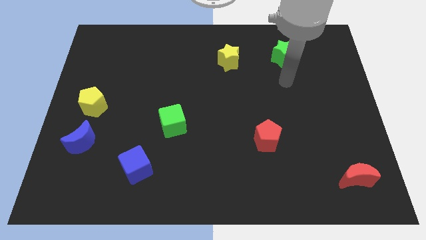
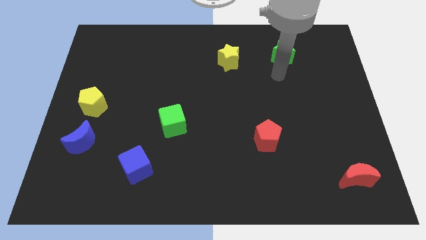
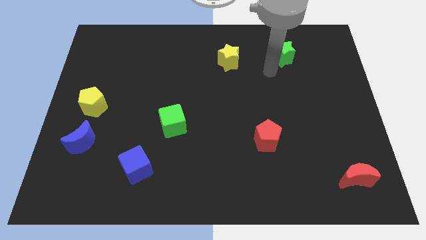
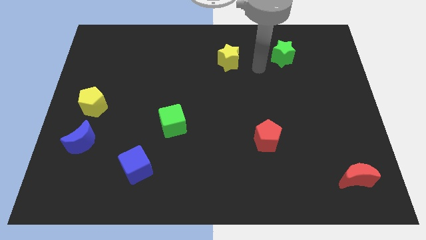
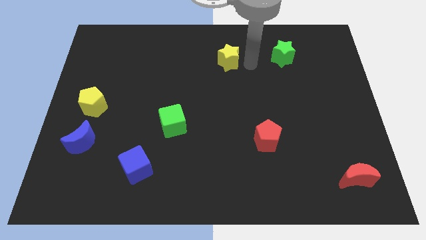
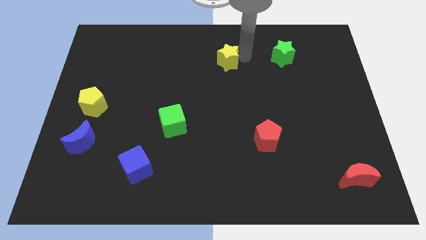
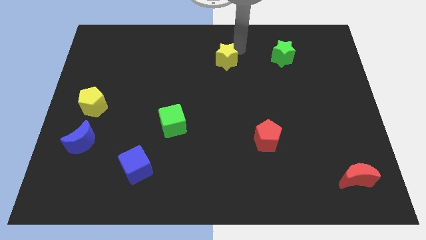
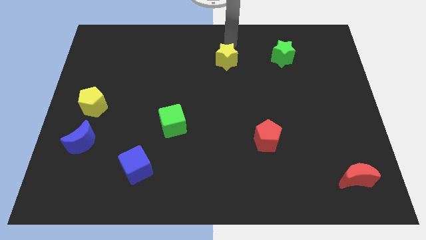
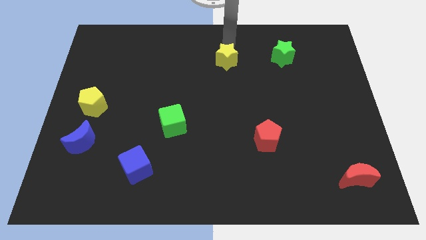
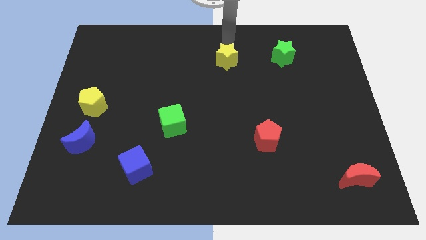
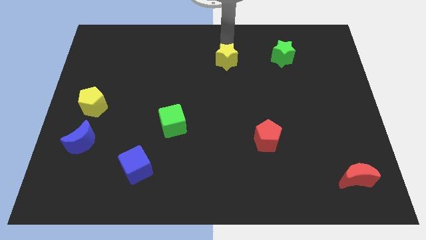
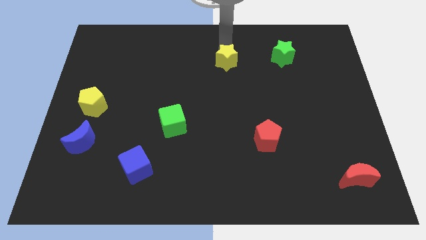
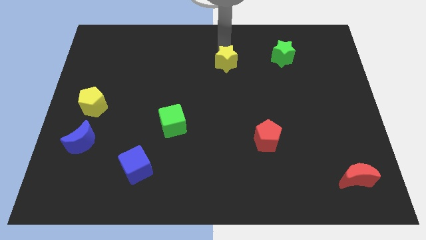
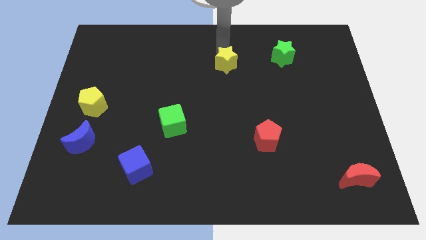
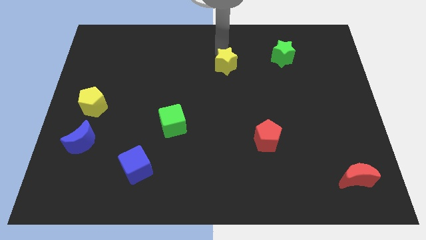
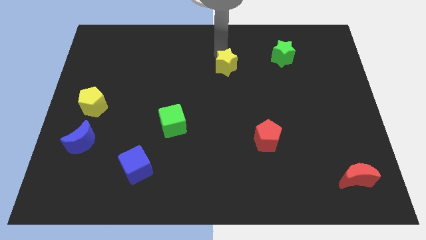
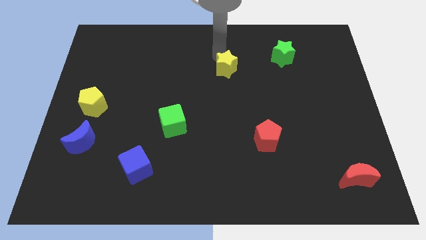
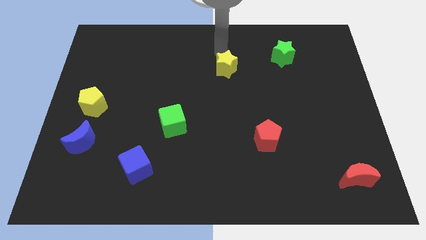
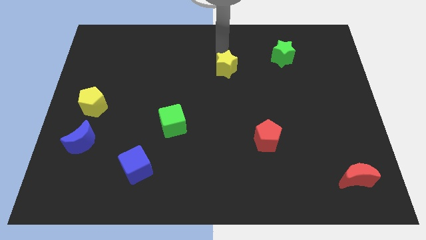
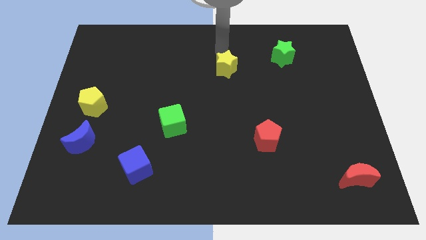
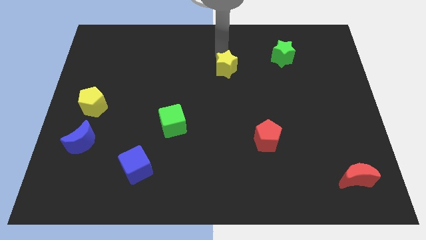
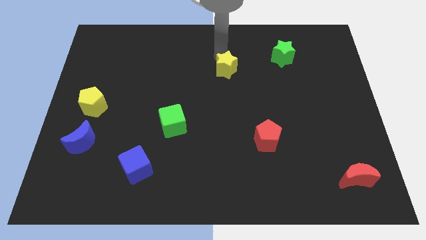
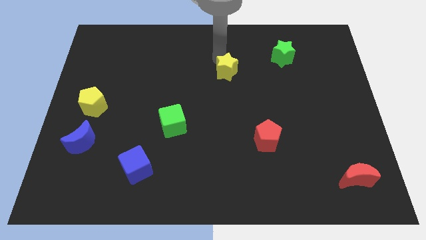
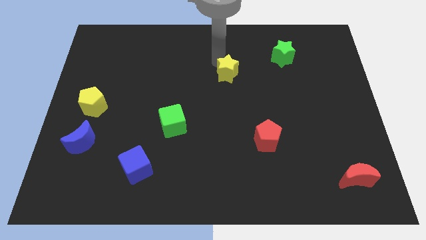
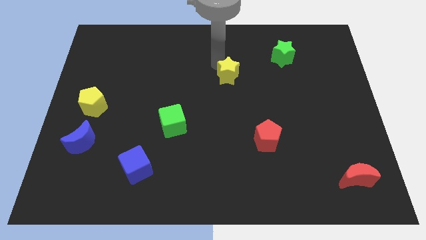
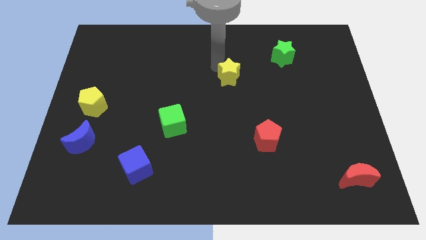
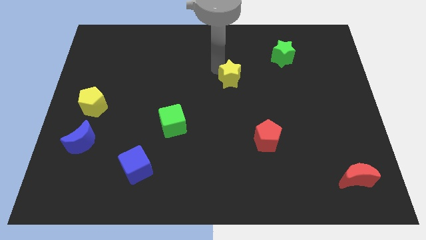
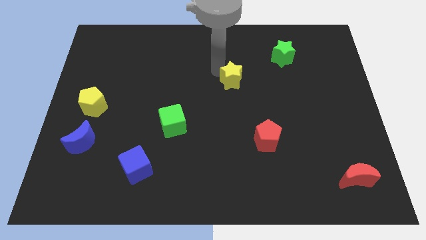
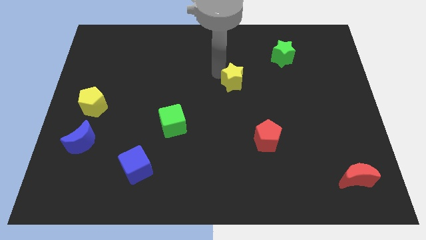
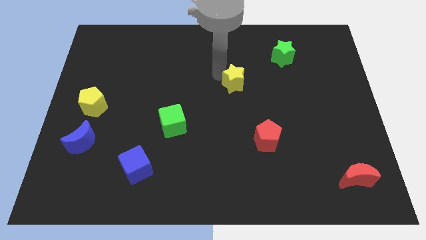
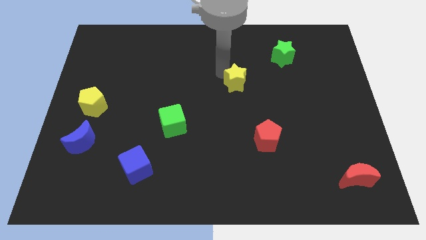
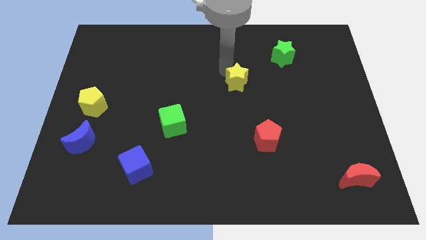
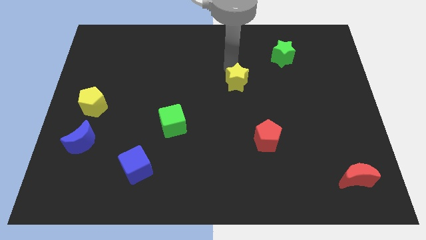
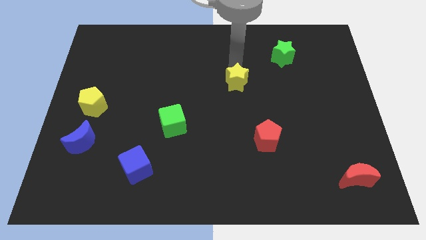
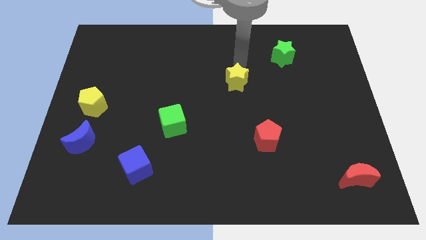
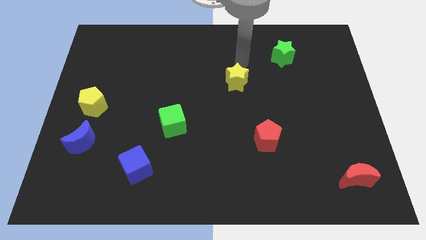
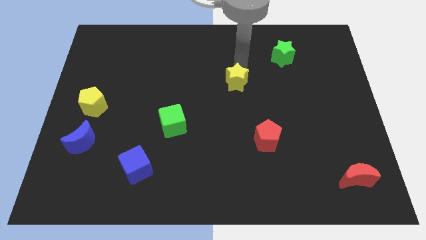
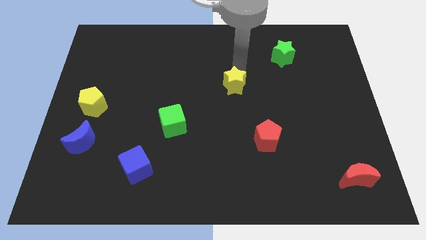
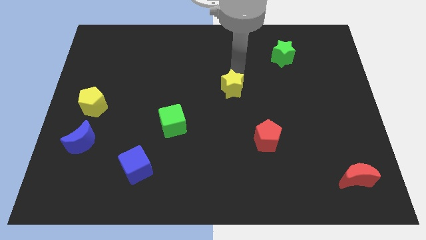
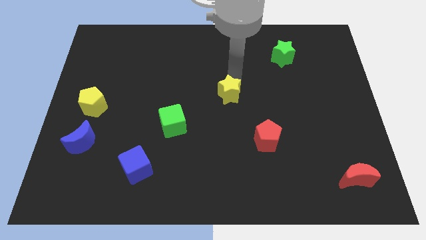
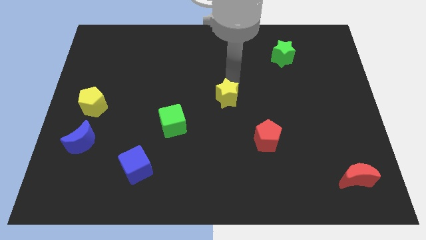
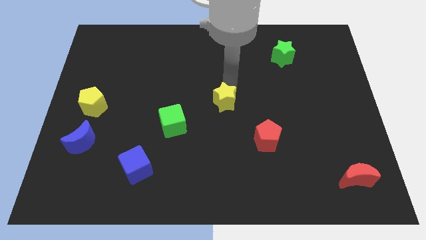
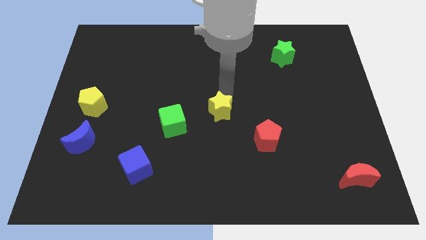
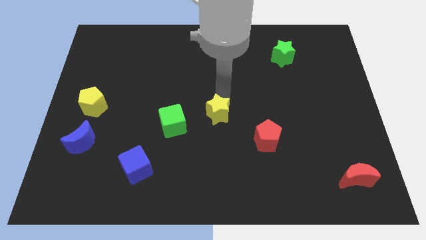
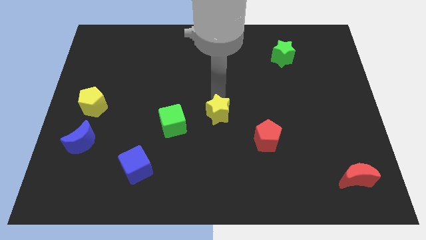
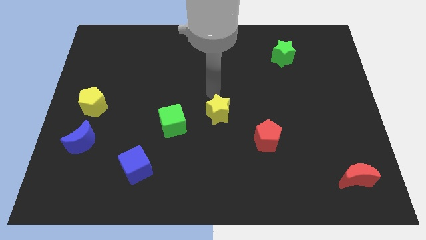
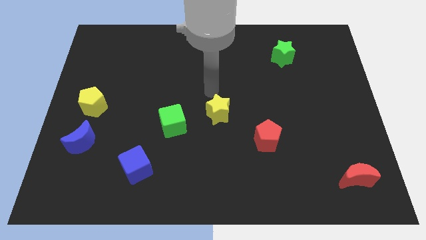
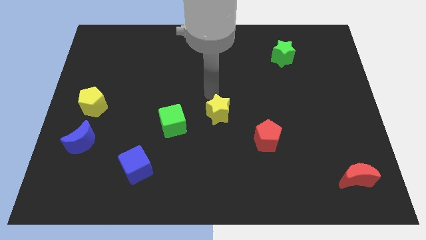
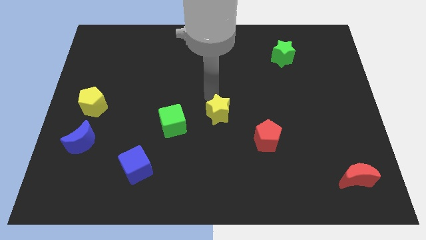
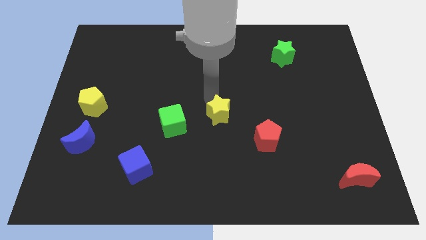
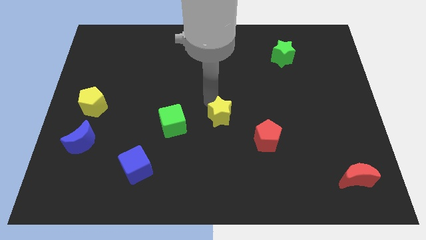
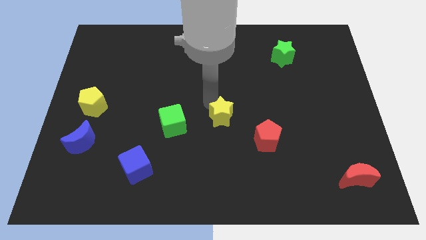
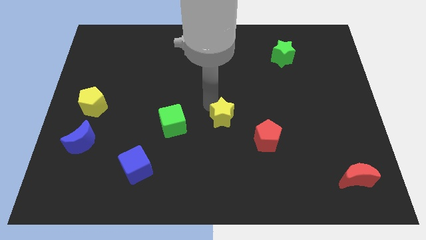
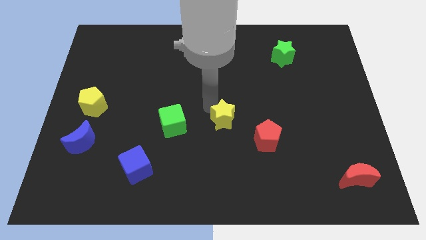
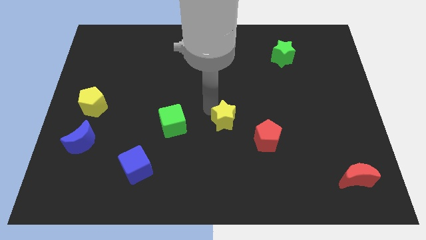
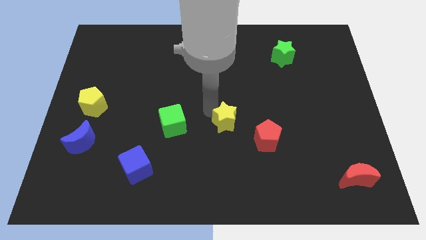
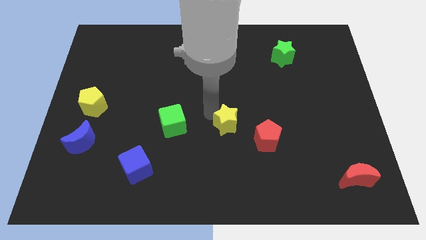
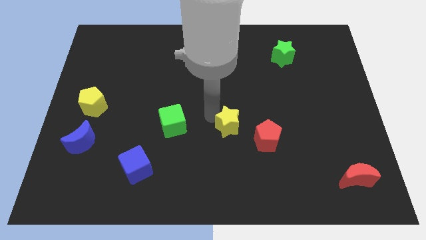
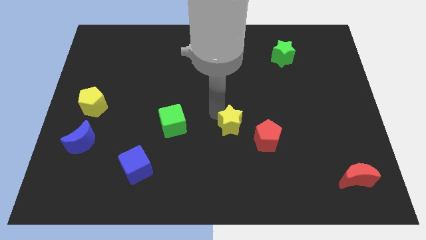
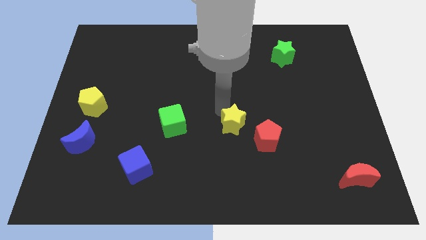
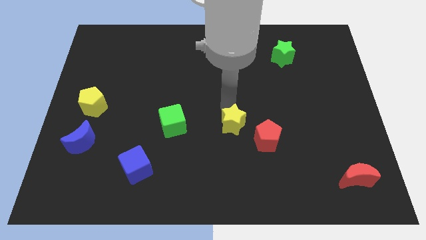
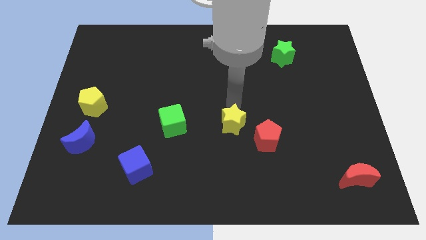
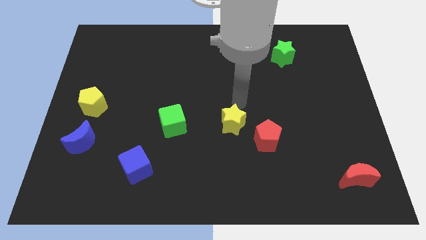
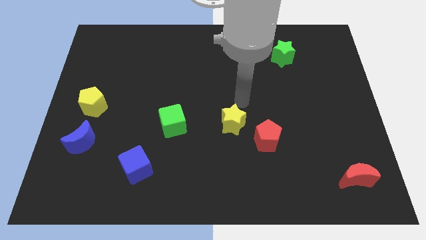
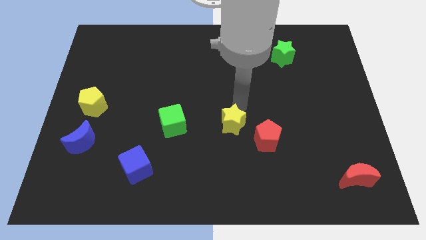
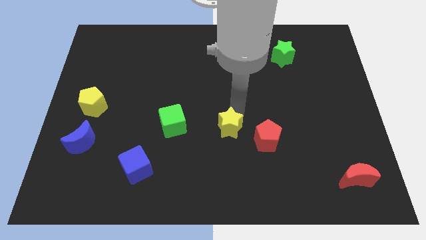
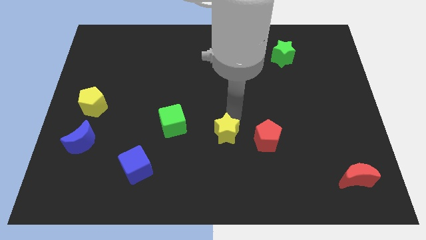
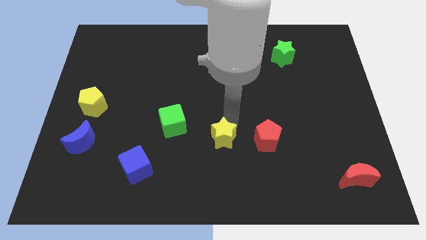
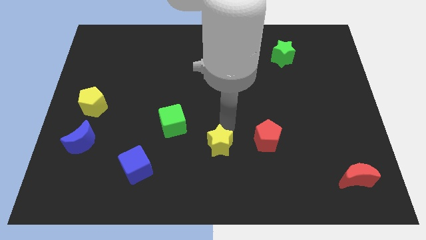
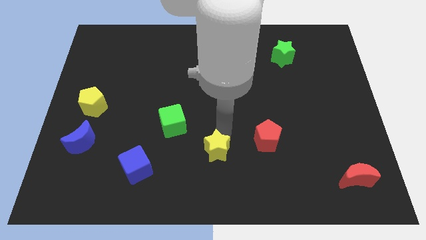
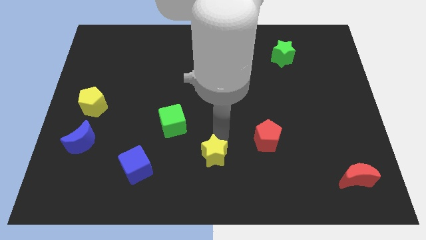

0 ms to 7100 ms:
slide the yellow star to the bottom side

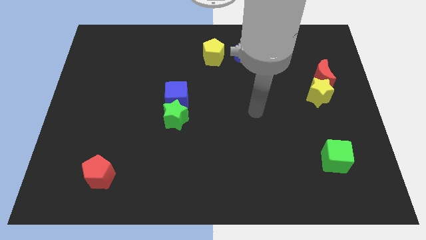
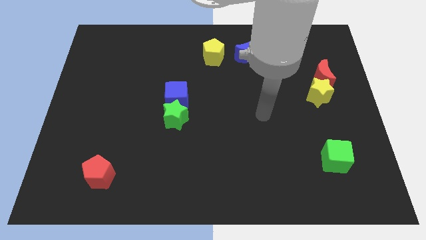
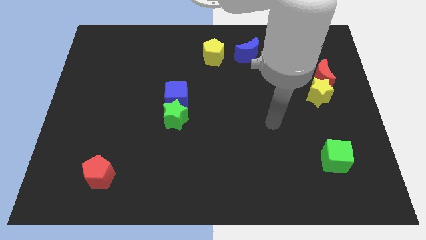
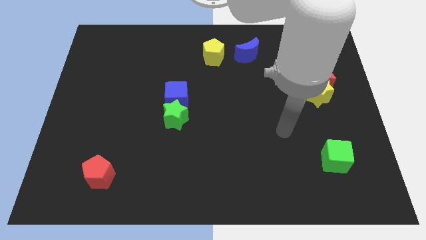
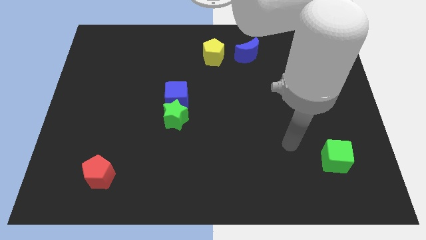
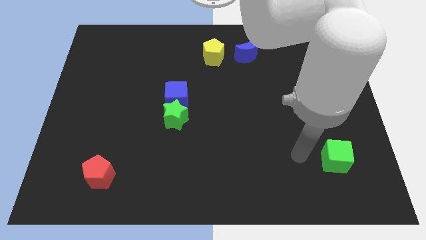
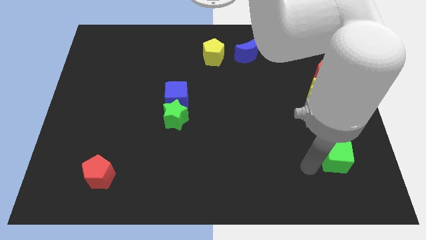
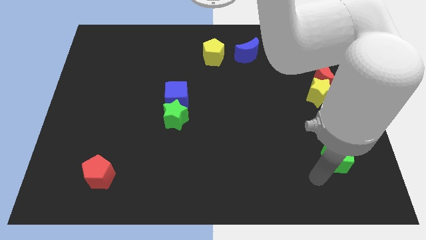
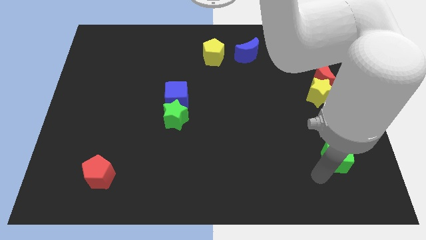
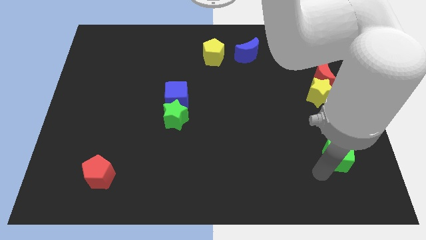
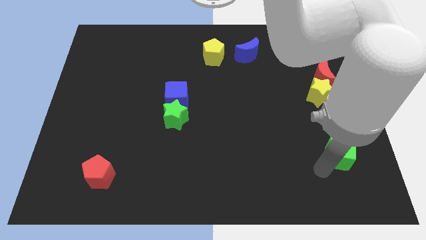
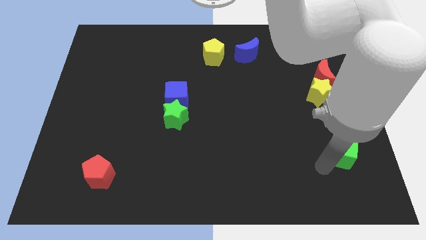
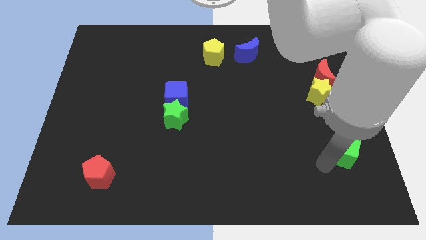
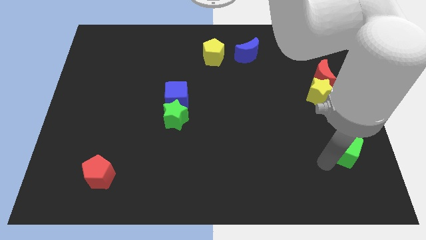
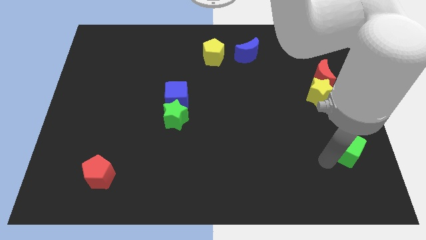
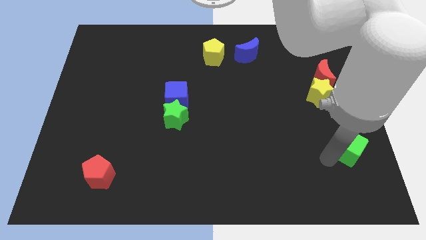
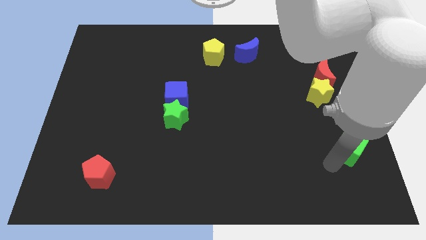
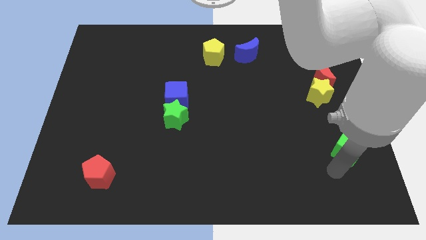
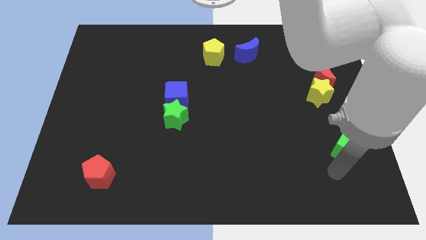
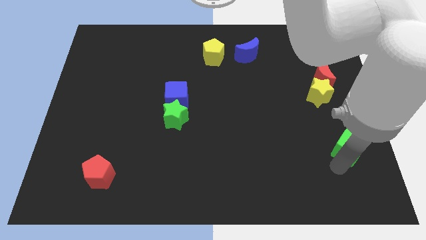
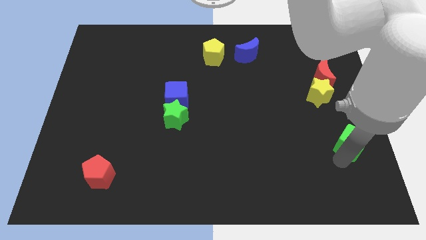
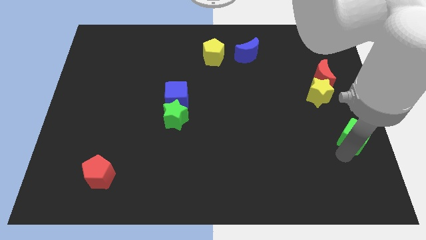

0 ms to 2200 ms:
put the green cube to the right side of the board
